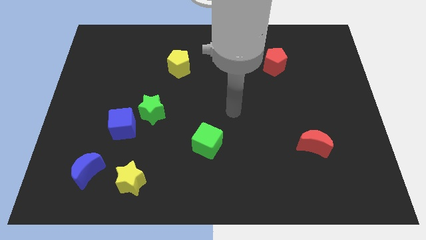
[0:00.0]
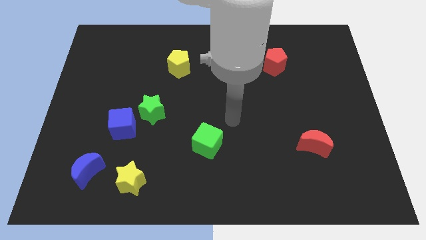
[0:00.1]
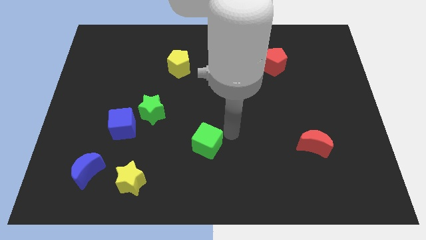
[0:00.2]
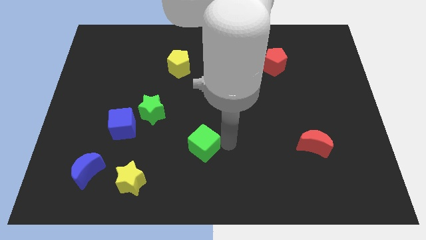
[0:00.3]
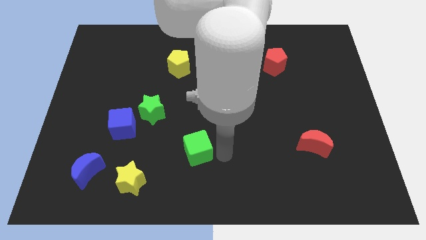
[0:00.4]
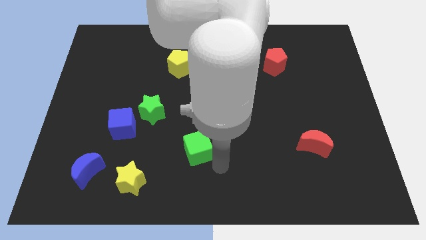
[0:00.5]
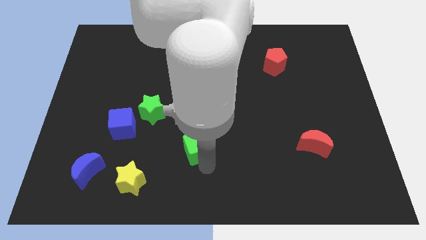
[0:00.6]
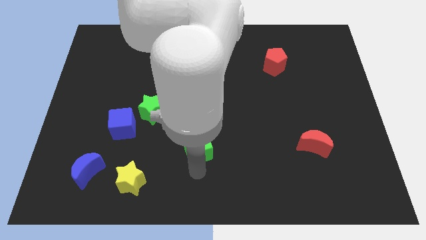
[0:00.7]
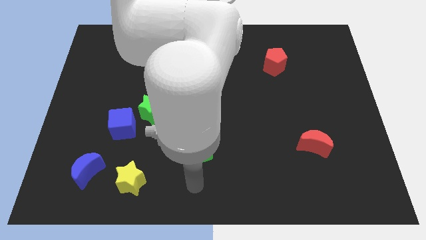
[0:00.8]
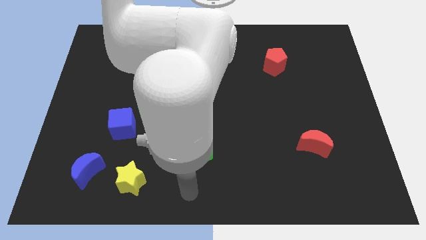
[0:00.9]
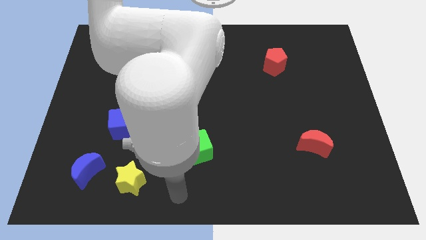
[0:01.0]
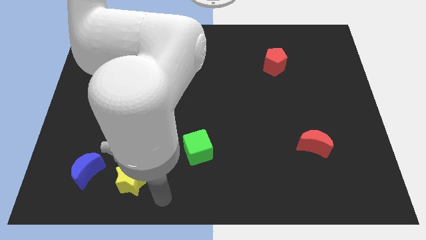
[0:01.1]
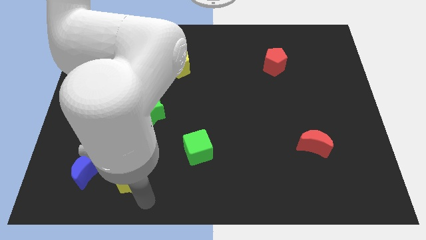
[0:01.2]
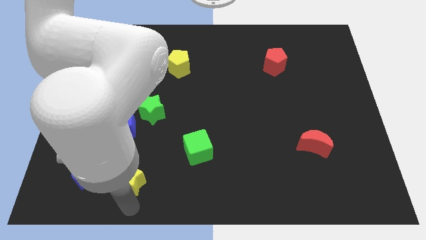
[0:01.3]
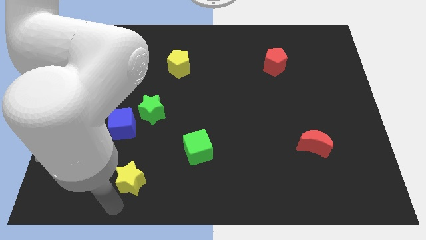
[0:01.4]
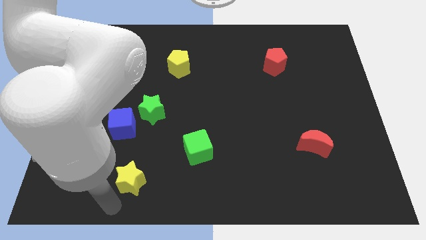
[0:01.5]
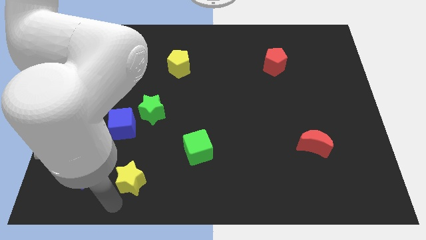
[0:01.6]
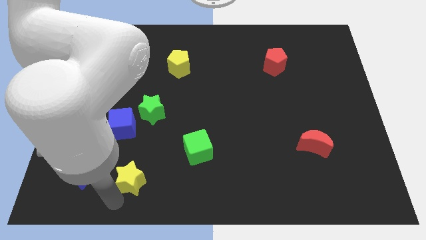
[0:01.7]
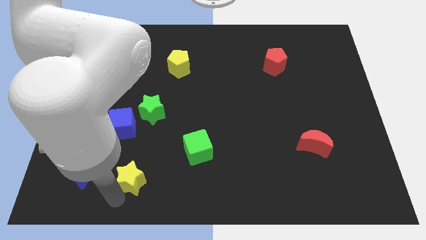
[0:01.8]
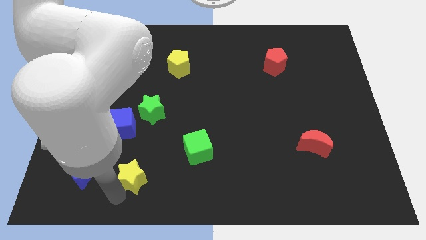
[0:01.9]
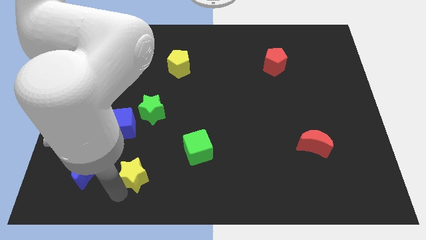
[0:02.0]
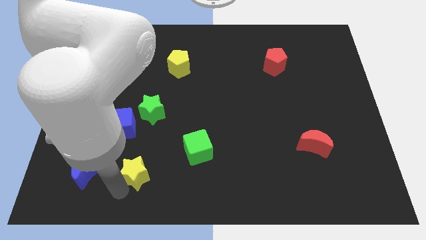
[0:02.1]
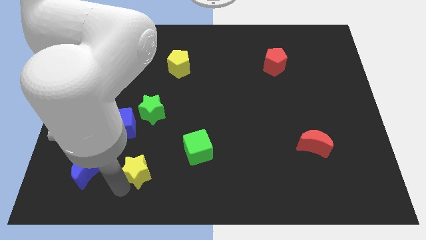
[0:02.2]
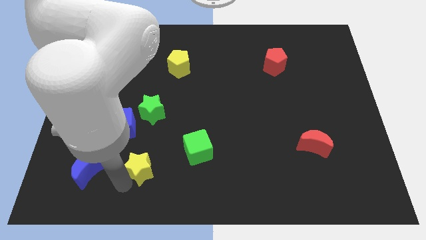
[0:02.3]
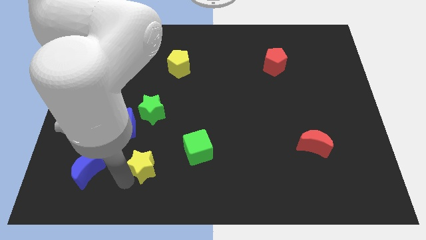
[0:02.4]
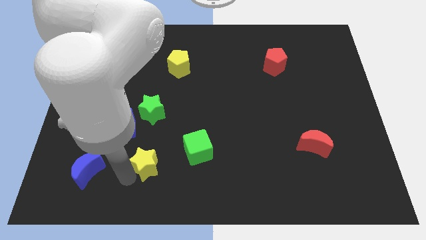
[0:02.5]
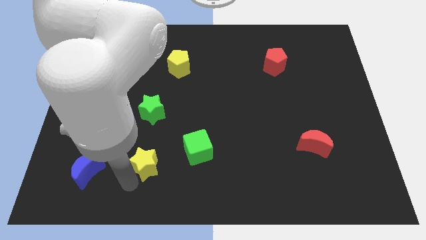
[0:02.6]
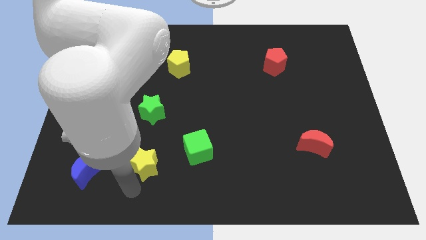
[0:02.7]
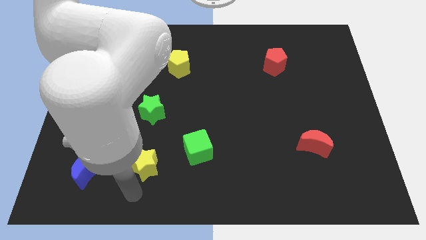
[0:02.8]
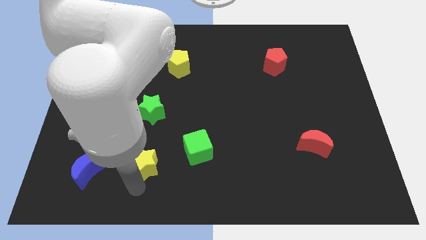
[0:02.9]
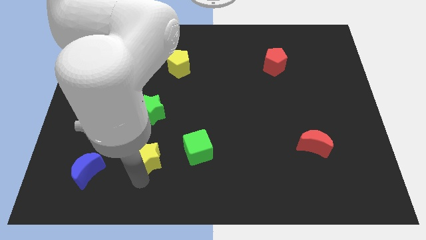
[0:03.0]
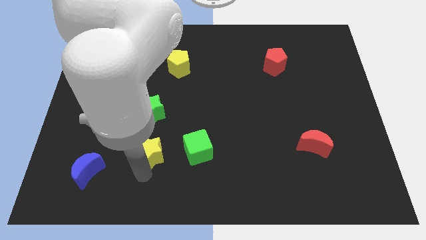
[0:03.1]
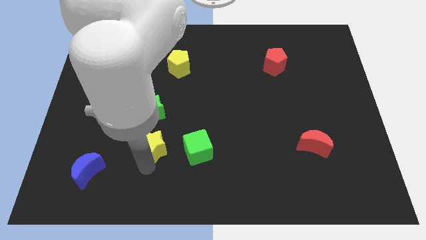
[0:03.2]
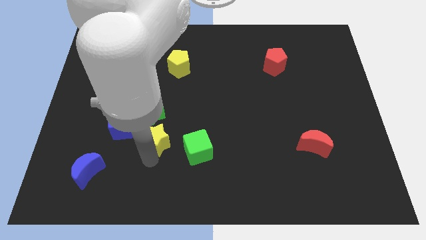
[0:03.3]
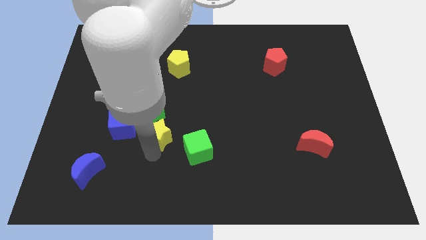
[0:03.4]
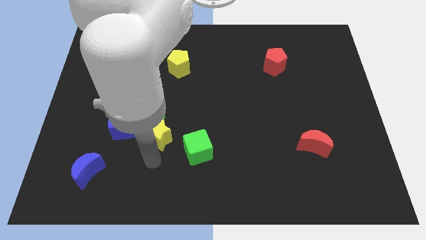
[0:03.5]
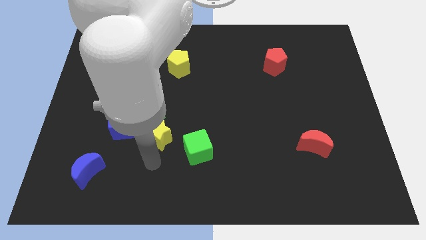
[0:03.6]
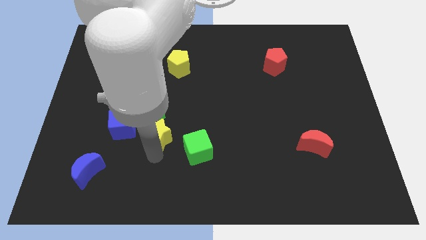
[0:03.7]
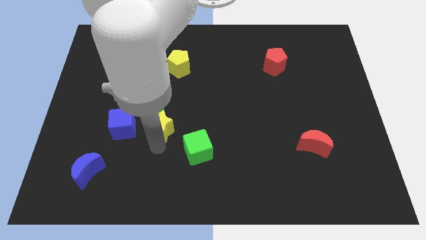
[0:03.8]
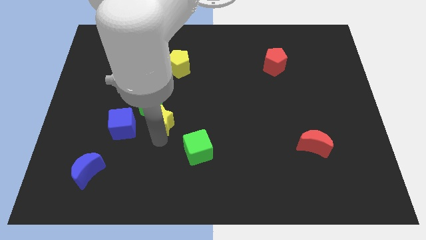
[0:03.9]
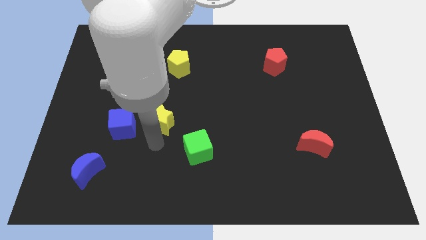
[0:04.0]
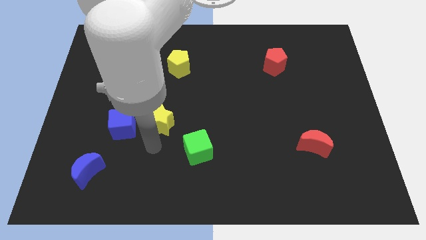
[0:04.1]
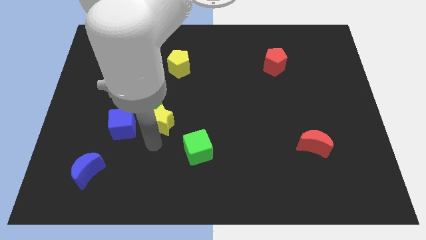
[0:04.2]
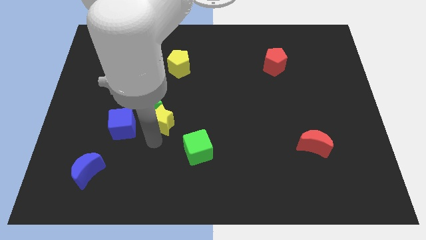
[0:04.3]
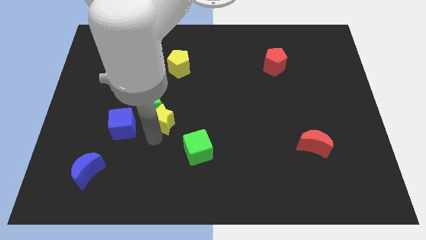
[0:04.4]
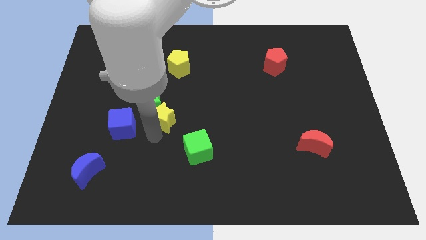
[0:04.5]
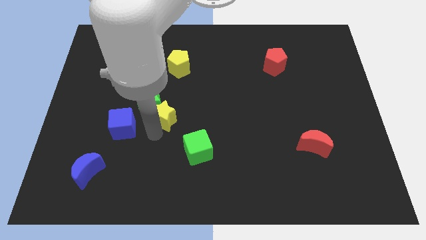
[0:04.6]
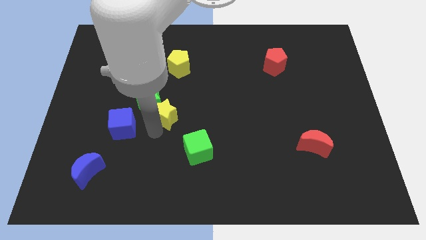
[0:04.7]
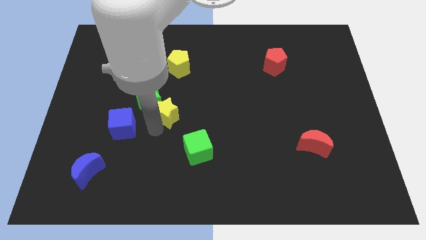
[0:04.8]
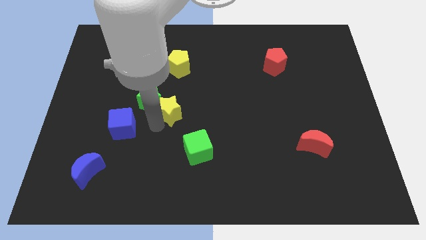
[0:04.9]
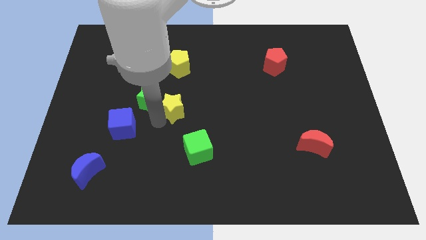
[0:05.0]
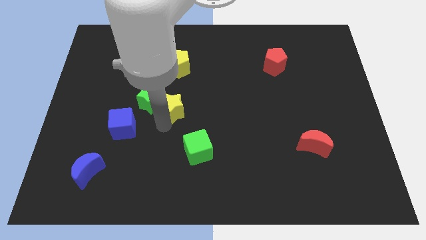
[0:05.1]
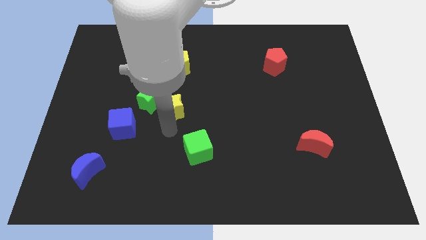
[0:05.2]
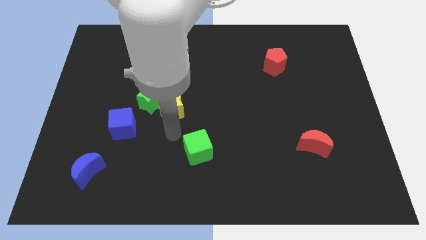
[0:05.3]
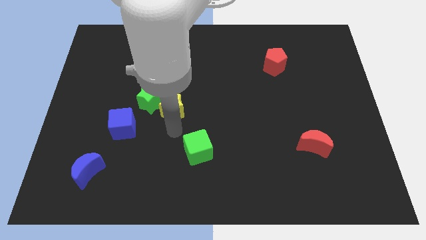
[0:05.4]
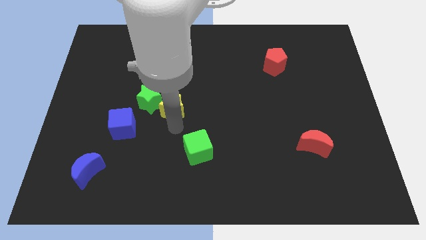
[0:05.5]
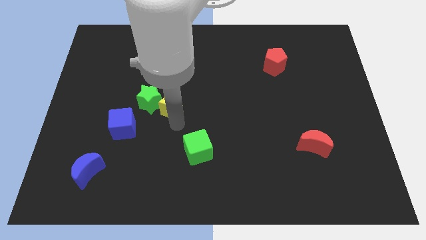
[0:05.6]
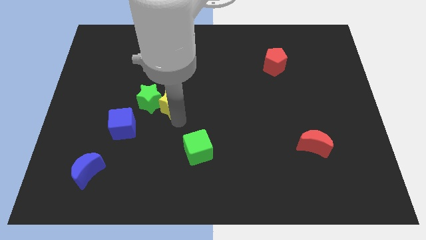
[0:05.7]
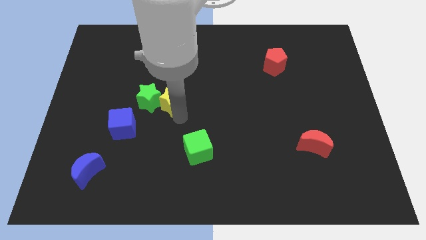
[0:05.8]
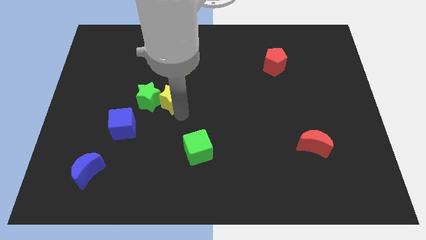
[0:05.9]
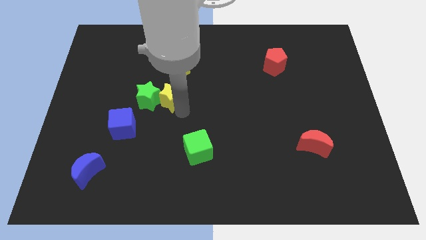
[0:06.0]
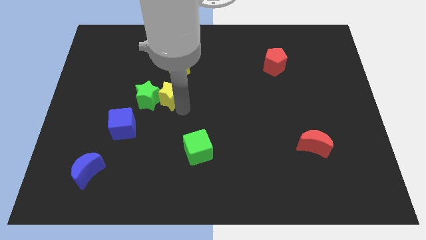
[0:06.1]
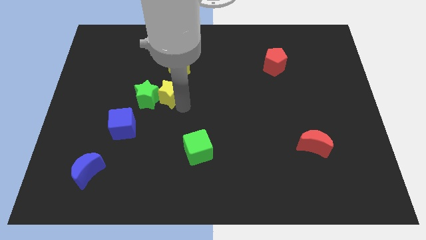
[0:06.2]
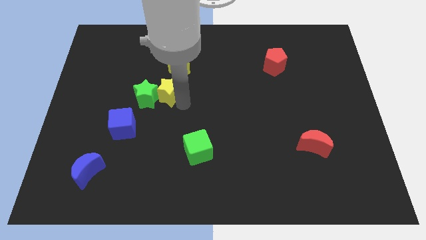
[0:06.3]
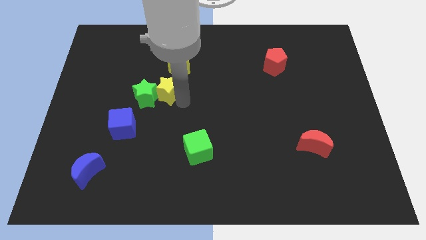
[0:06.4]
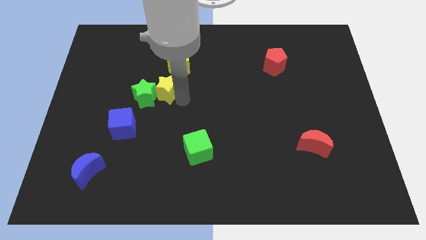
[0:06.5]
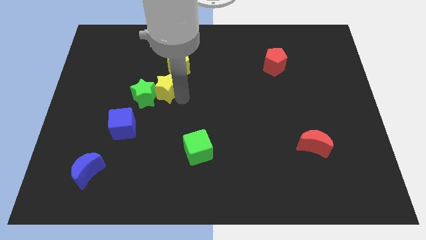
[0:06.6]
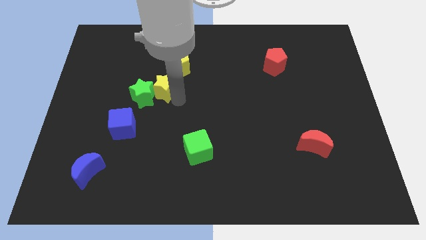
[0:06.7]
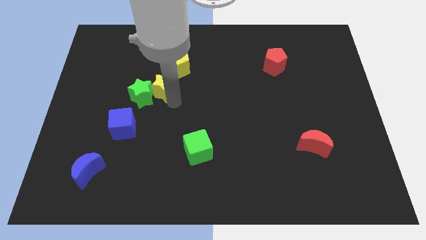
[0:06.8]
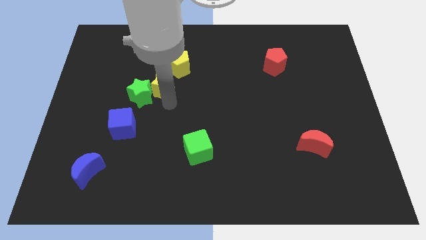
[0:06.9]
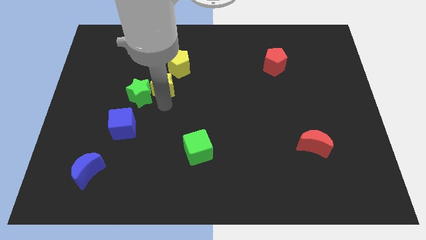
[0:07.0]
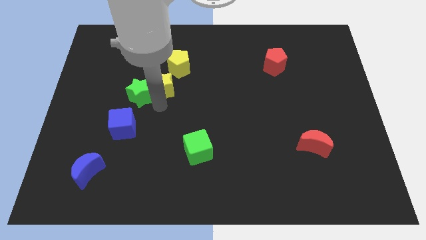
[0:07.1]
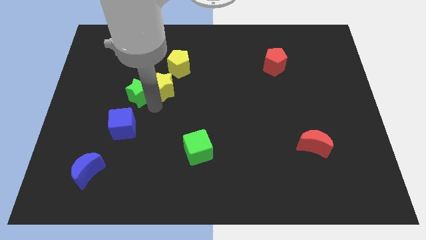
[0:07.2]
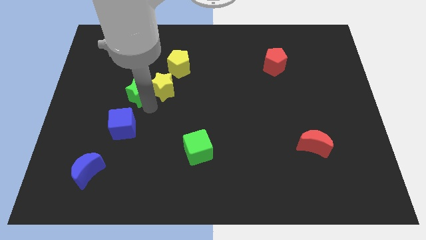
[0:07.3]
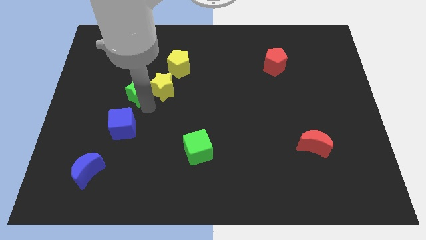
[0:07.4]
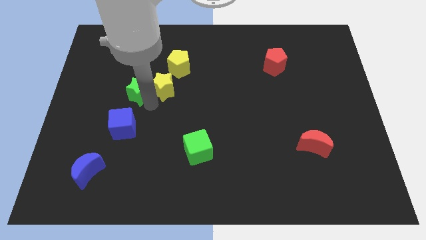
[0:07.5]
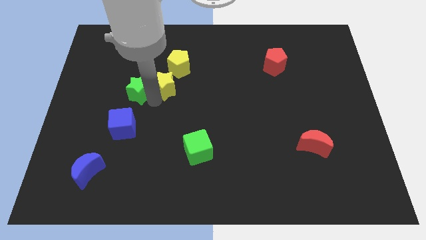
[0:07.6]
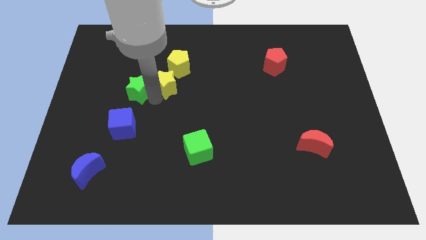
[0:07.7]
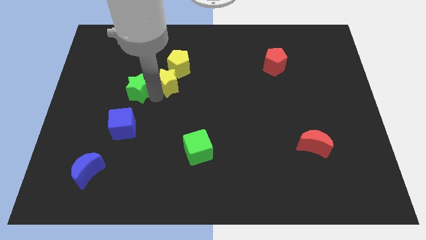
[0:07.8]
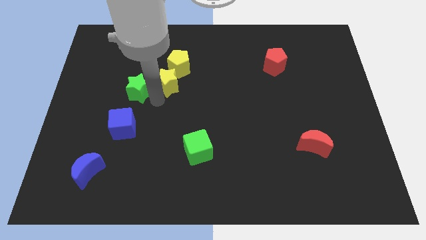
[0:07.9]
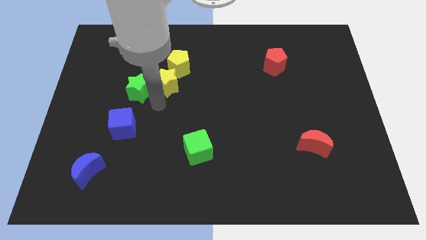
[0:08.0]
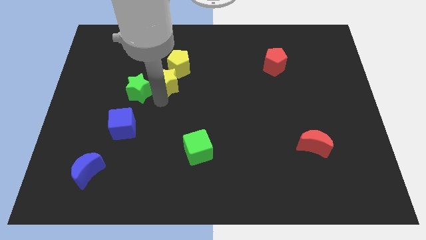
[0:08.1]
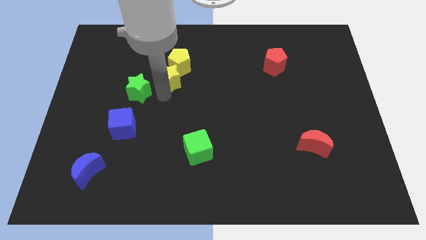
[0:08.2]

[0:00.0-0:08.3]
push the yellow star next to the yellow pentagon
